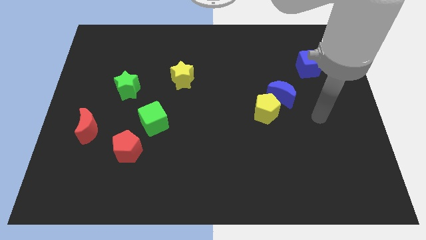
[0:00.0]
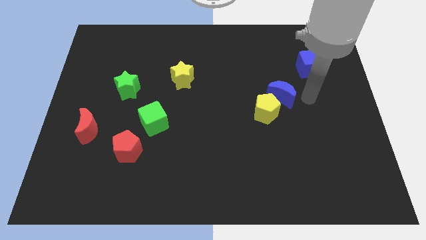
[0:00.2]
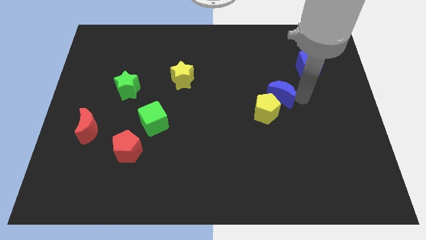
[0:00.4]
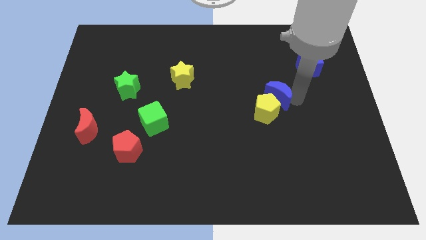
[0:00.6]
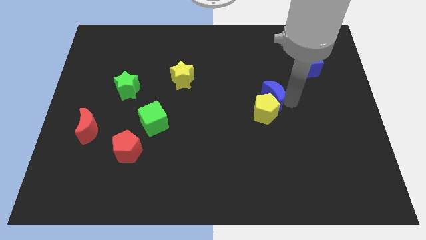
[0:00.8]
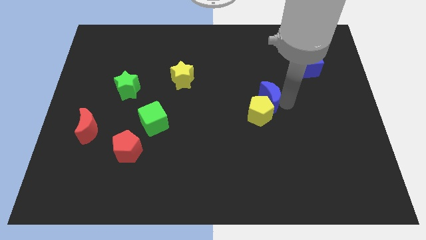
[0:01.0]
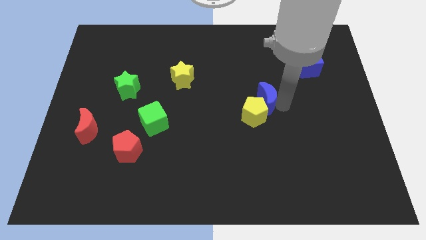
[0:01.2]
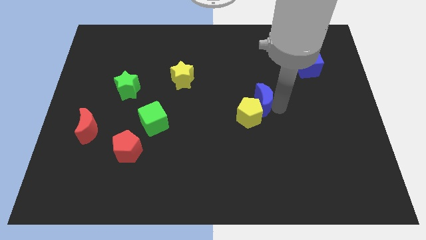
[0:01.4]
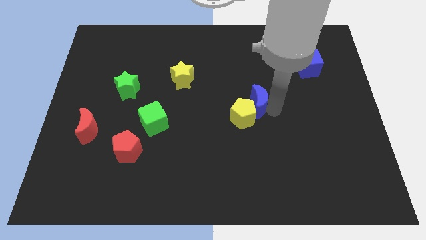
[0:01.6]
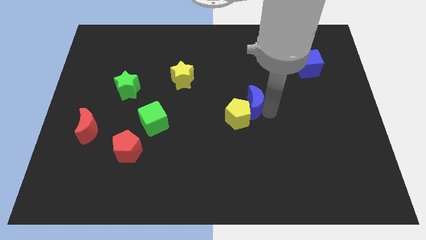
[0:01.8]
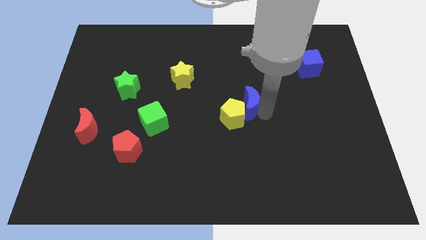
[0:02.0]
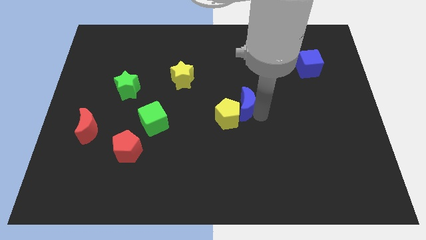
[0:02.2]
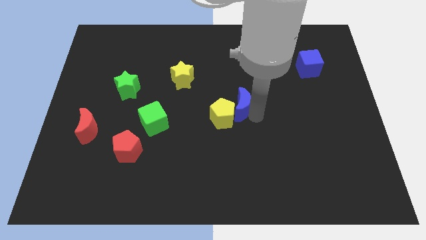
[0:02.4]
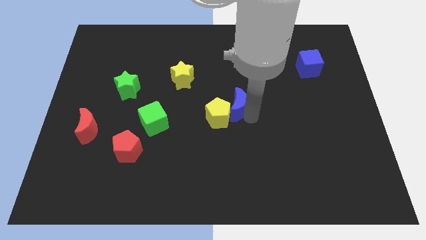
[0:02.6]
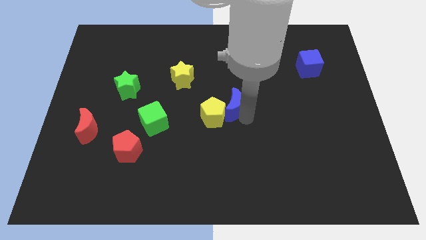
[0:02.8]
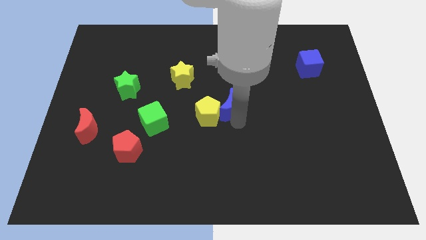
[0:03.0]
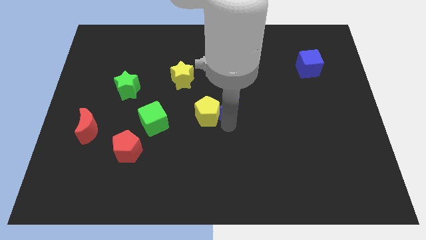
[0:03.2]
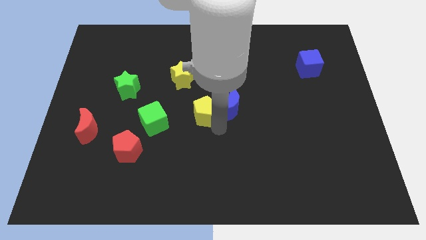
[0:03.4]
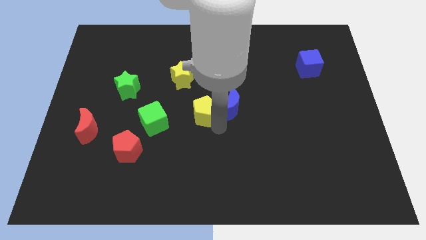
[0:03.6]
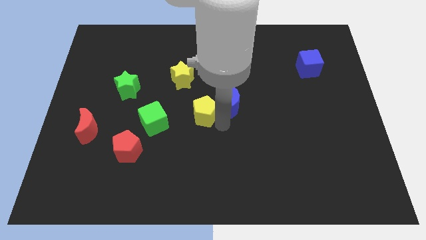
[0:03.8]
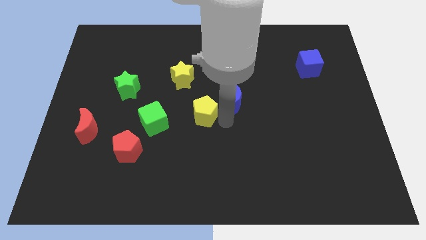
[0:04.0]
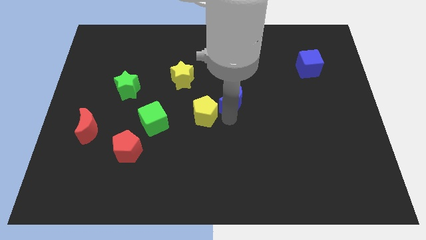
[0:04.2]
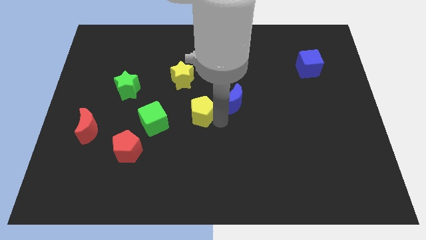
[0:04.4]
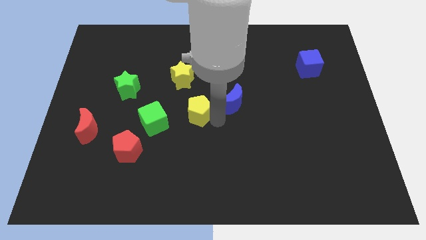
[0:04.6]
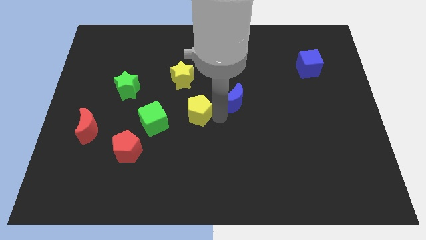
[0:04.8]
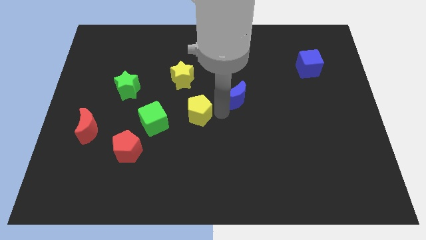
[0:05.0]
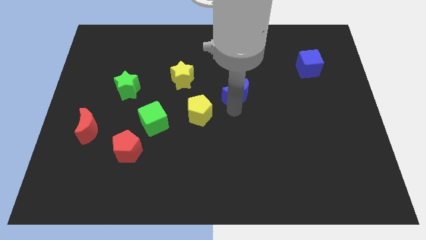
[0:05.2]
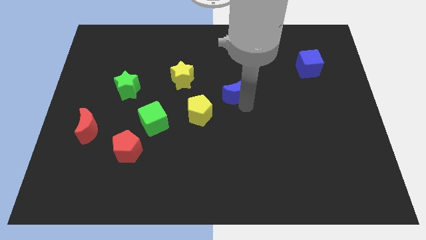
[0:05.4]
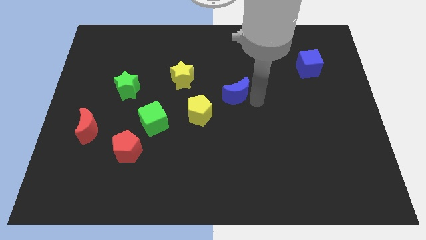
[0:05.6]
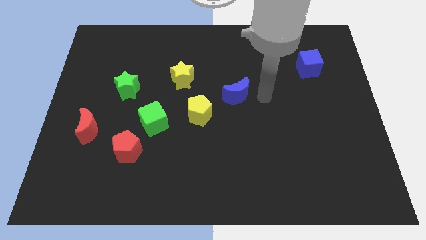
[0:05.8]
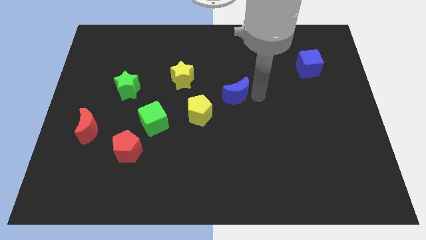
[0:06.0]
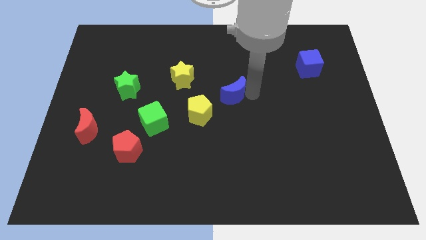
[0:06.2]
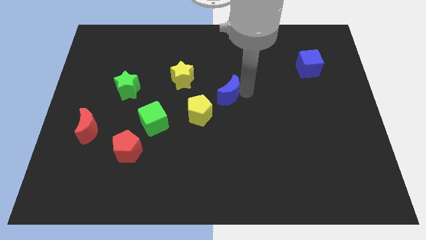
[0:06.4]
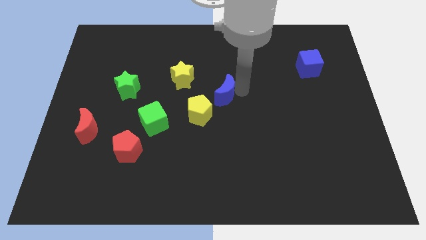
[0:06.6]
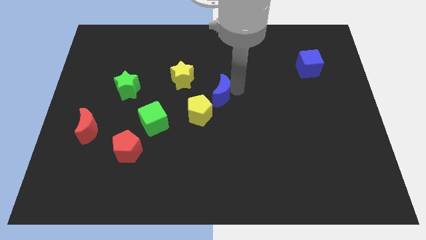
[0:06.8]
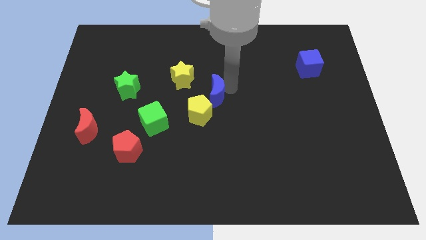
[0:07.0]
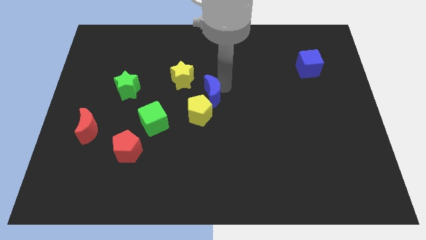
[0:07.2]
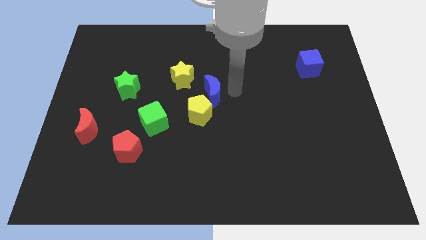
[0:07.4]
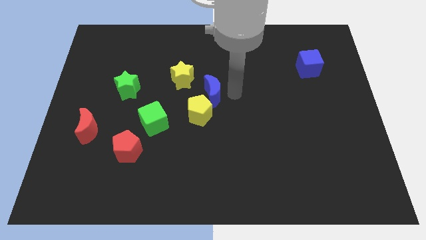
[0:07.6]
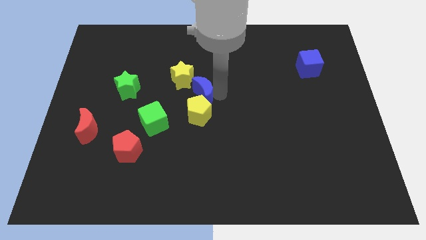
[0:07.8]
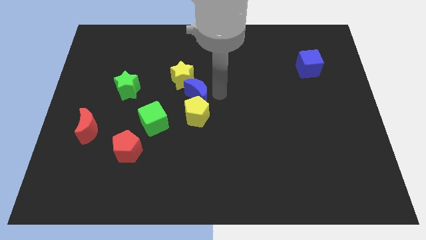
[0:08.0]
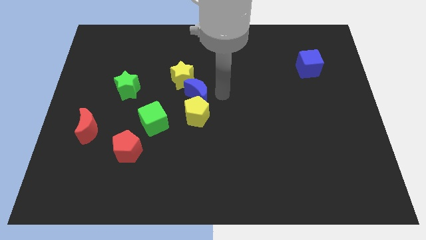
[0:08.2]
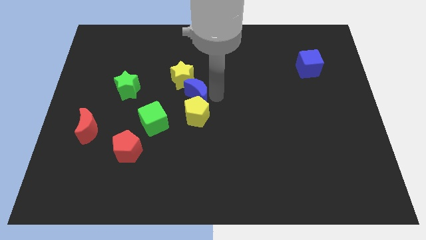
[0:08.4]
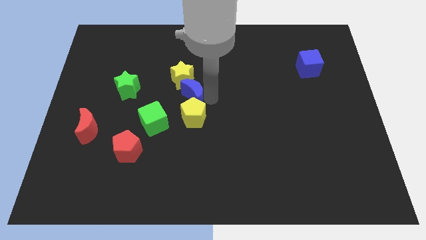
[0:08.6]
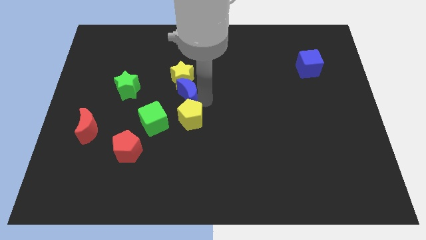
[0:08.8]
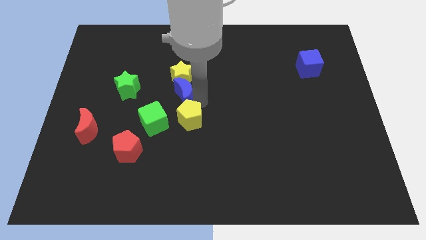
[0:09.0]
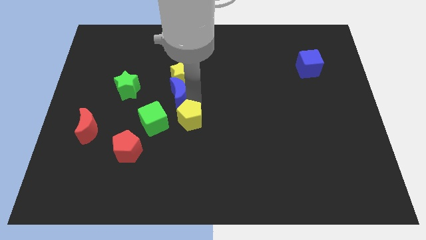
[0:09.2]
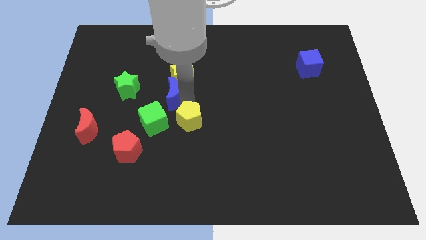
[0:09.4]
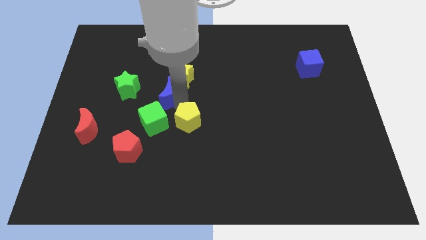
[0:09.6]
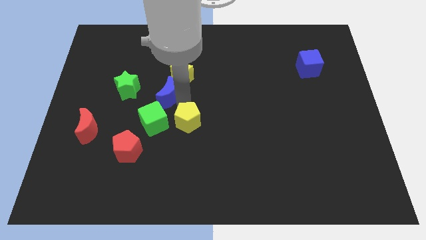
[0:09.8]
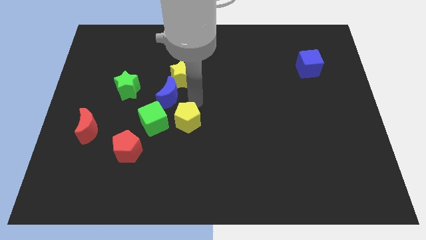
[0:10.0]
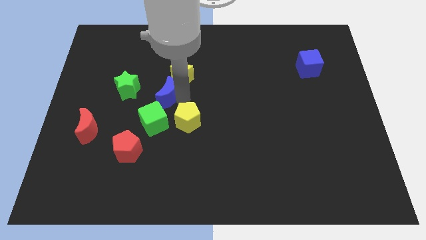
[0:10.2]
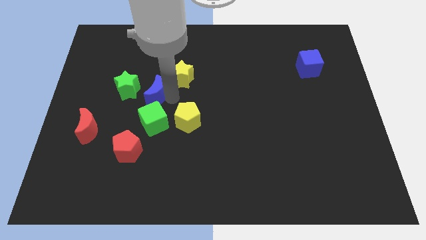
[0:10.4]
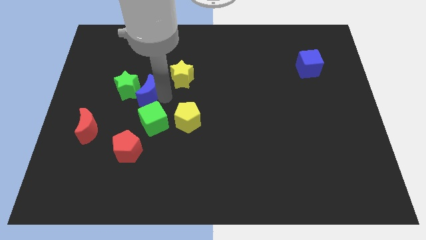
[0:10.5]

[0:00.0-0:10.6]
move the blue moon to the green star

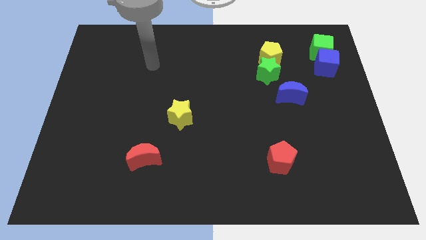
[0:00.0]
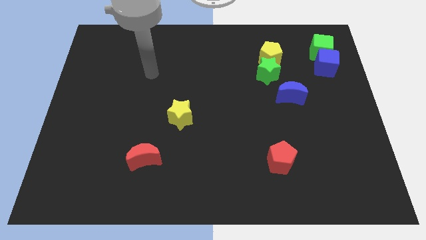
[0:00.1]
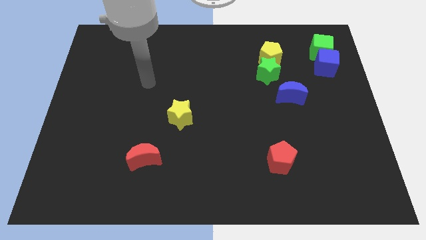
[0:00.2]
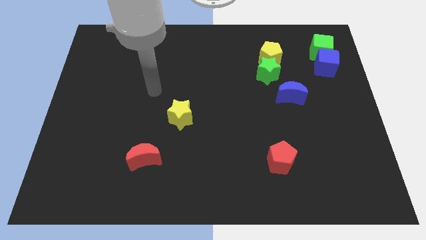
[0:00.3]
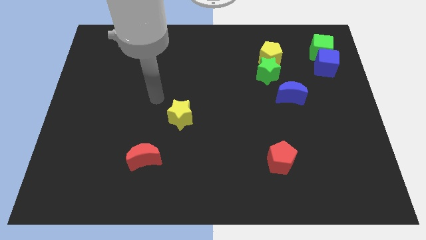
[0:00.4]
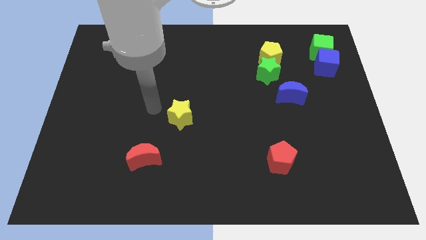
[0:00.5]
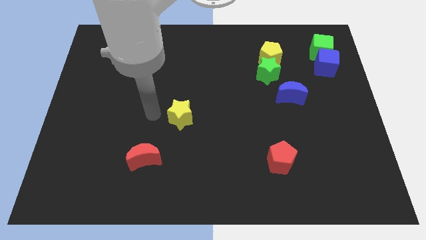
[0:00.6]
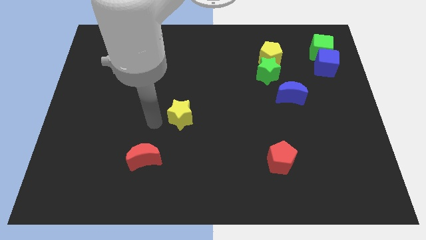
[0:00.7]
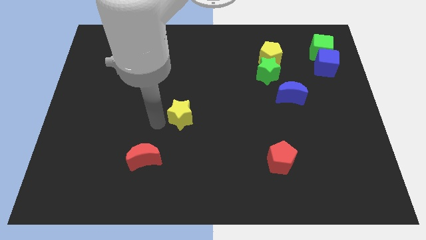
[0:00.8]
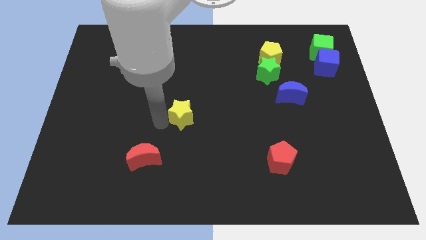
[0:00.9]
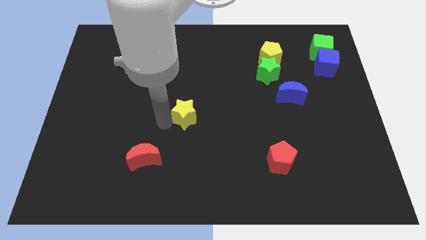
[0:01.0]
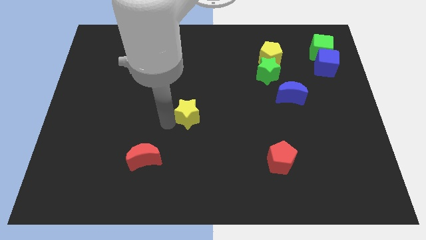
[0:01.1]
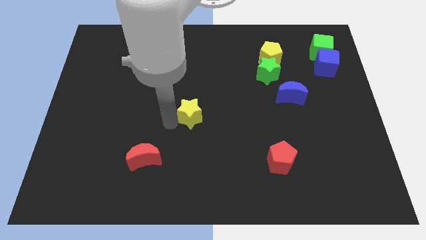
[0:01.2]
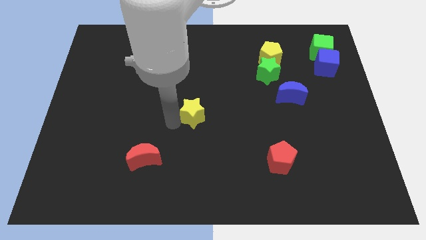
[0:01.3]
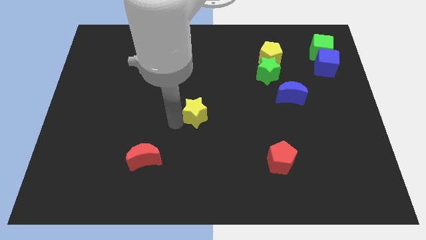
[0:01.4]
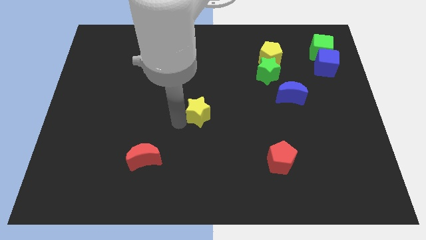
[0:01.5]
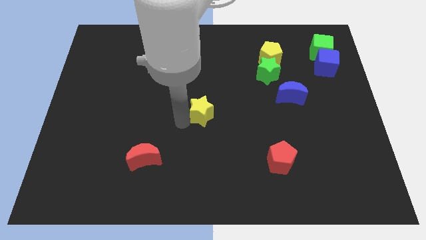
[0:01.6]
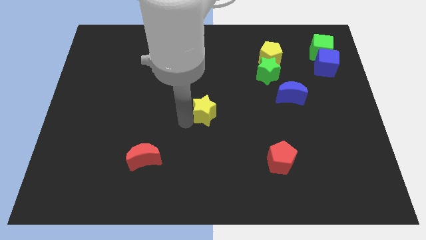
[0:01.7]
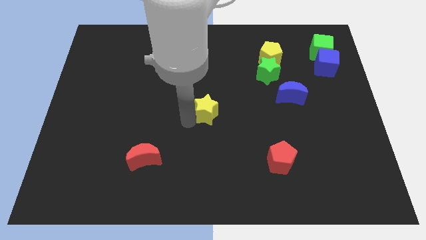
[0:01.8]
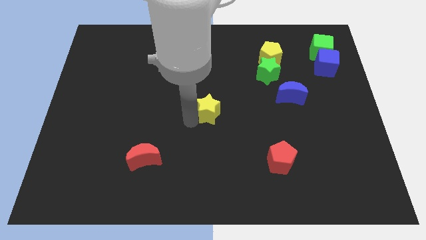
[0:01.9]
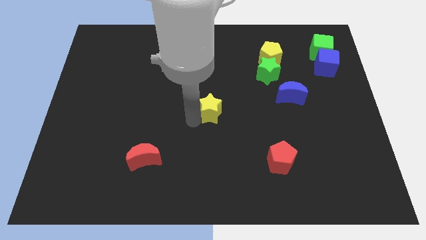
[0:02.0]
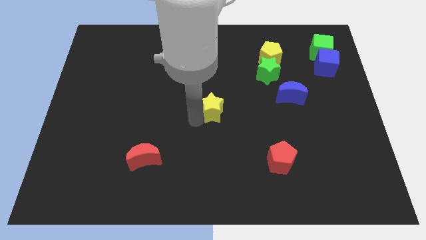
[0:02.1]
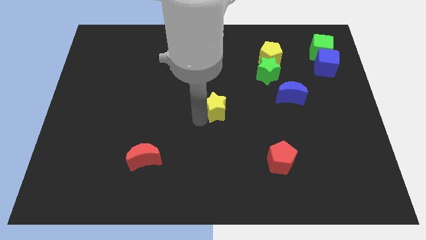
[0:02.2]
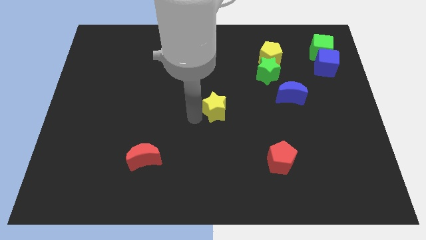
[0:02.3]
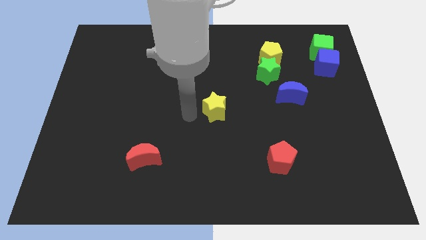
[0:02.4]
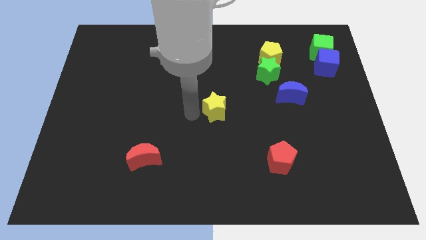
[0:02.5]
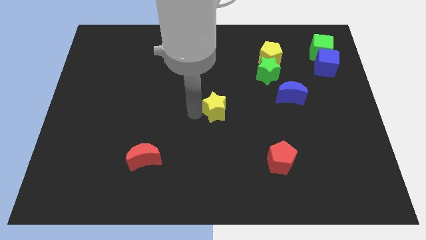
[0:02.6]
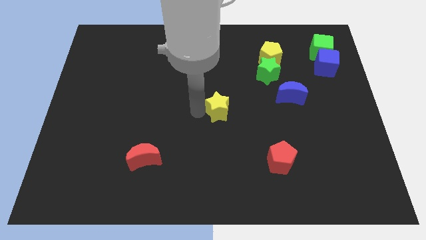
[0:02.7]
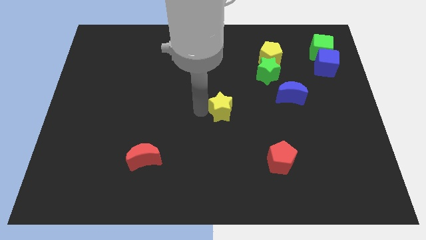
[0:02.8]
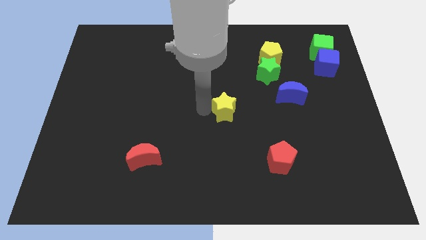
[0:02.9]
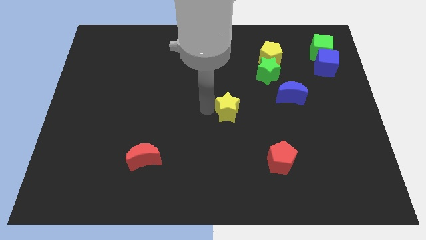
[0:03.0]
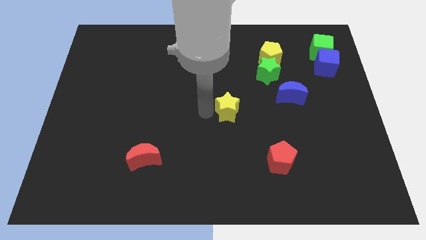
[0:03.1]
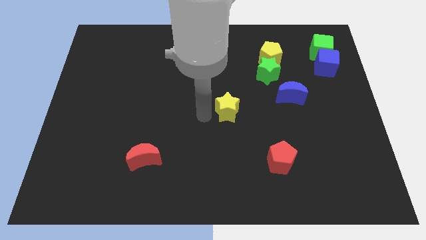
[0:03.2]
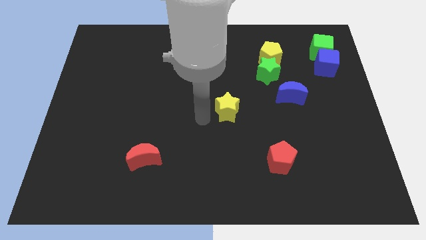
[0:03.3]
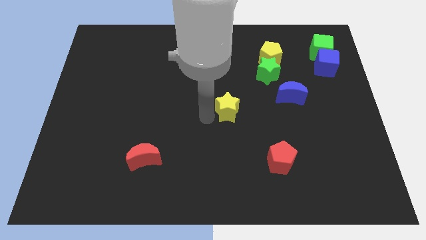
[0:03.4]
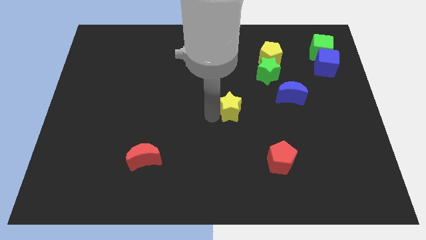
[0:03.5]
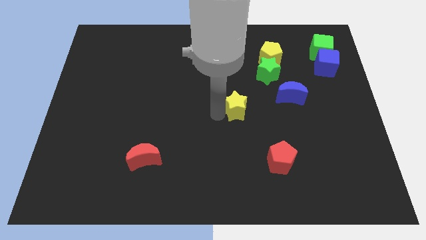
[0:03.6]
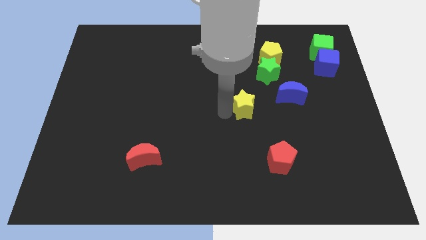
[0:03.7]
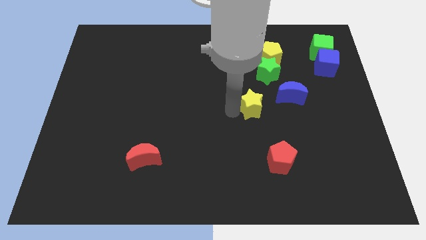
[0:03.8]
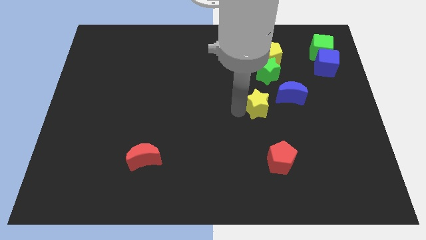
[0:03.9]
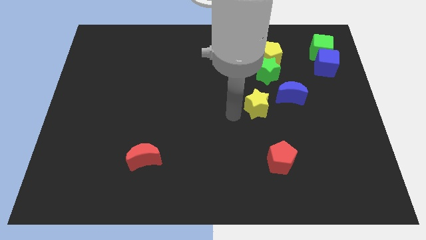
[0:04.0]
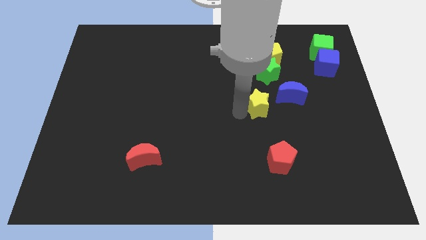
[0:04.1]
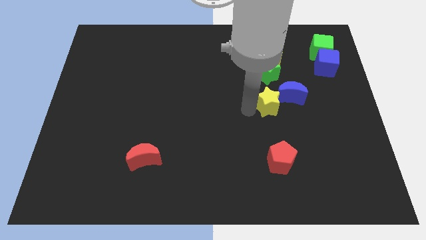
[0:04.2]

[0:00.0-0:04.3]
move the yellow star to the blue moon
